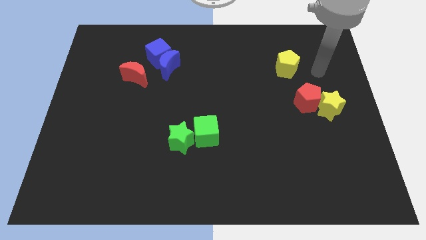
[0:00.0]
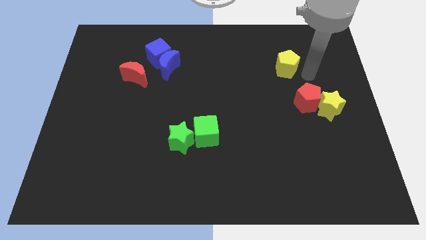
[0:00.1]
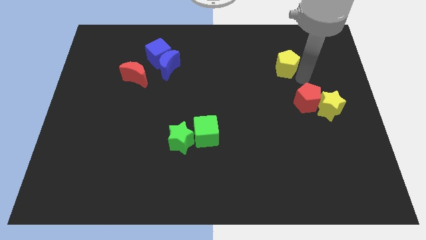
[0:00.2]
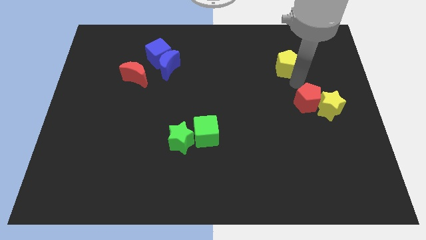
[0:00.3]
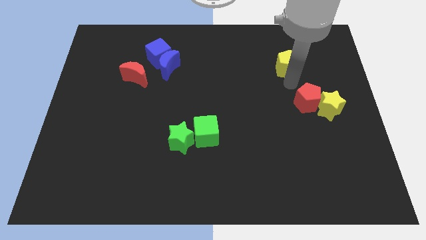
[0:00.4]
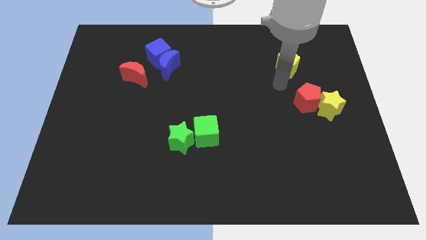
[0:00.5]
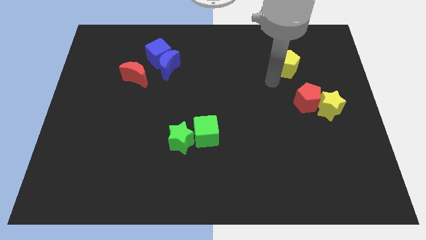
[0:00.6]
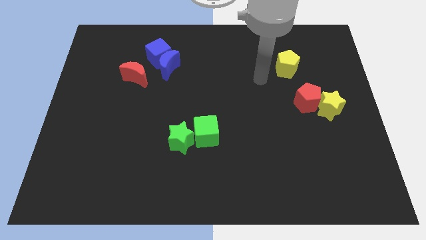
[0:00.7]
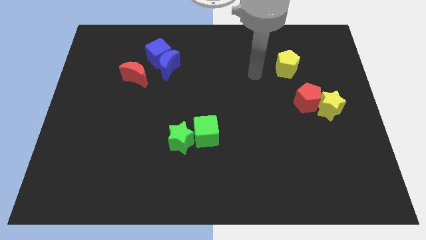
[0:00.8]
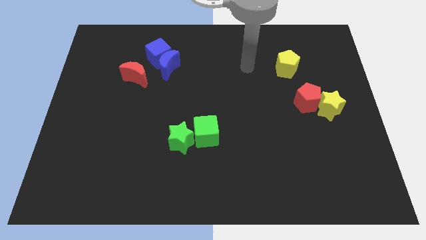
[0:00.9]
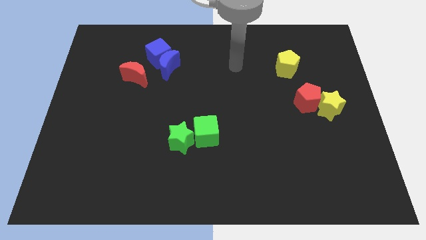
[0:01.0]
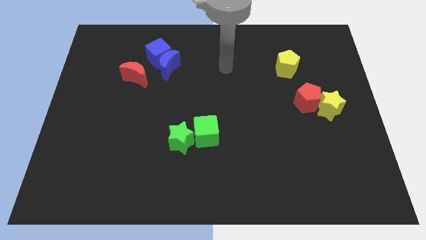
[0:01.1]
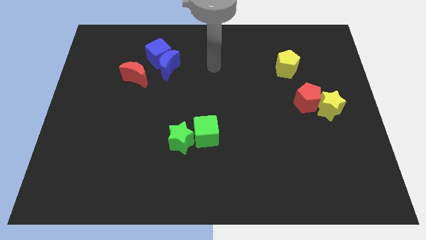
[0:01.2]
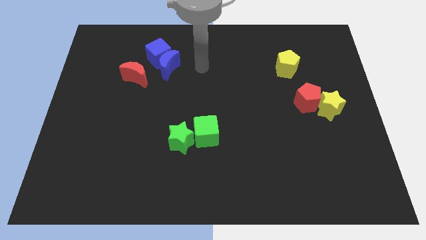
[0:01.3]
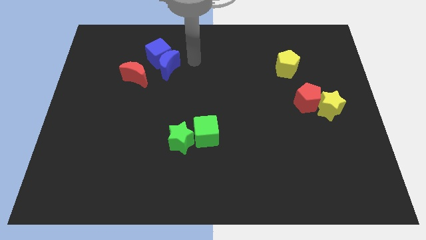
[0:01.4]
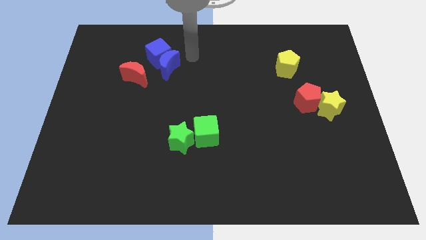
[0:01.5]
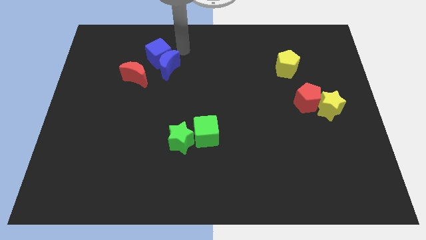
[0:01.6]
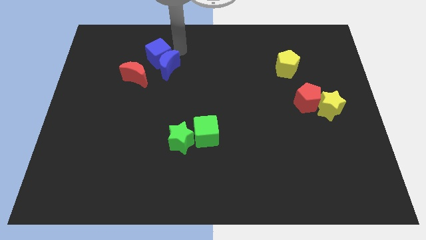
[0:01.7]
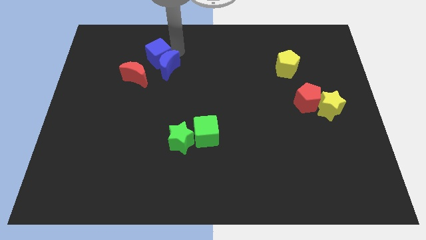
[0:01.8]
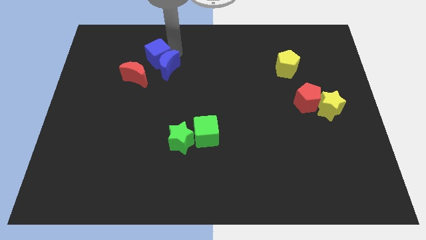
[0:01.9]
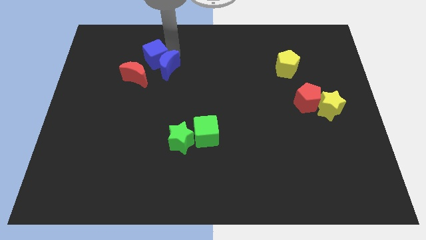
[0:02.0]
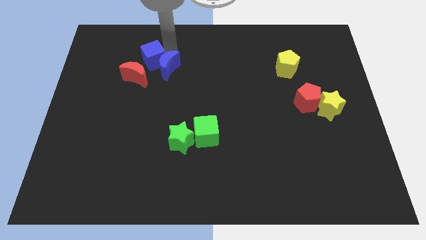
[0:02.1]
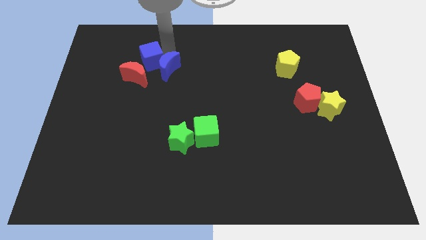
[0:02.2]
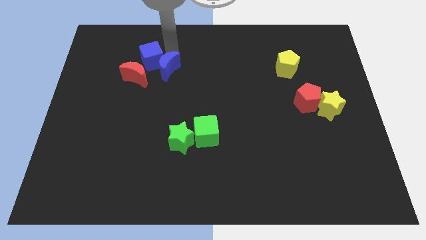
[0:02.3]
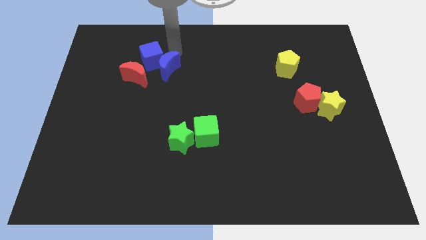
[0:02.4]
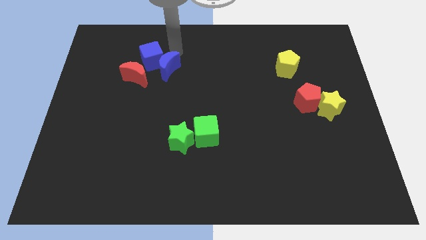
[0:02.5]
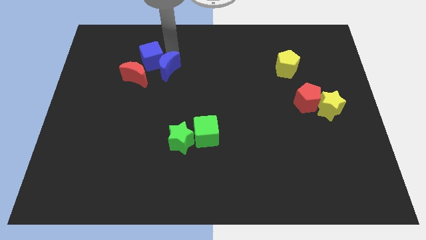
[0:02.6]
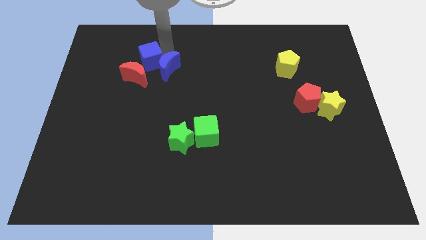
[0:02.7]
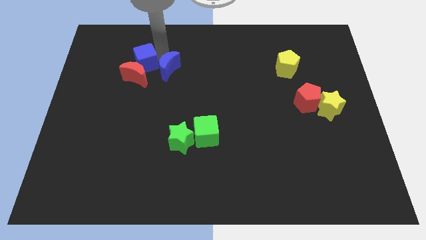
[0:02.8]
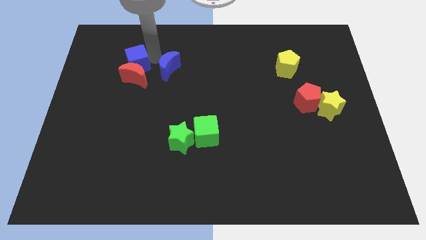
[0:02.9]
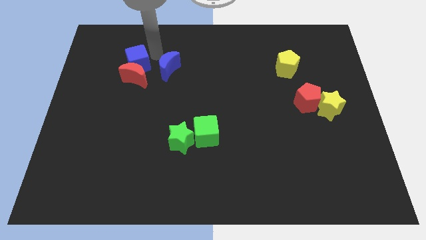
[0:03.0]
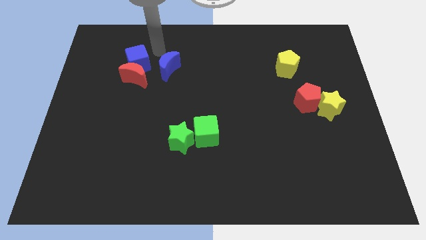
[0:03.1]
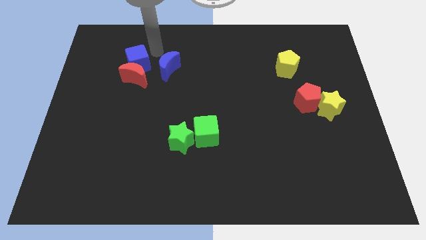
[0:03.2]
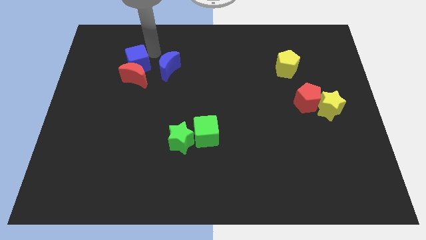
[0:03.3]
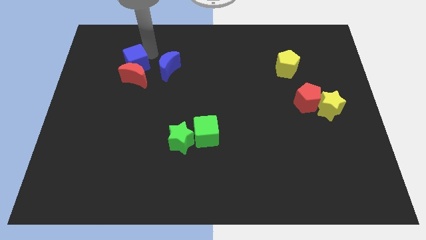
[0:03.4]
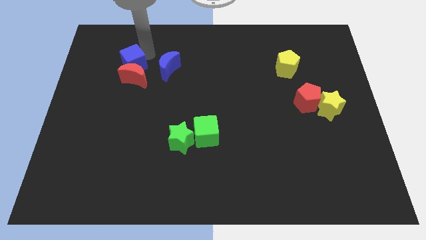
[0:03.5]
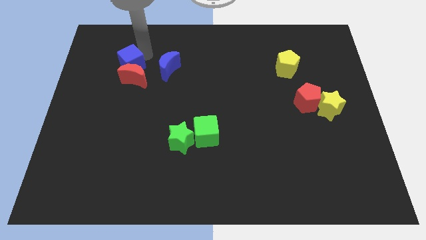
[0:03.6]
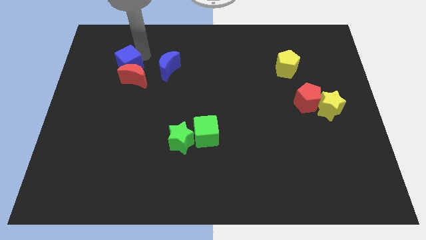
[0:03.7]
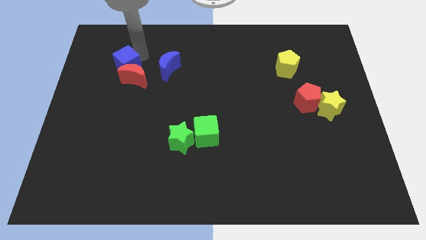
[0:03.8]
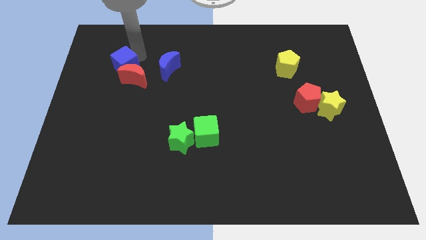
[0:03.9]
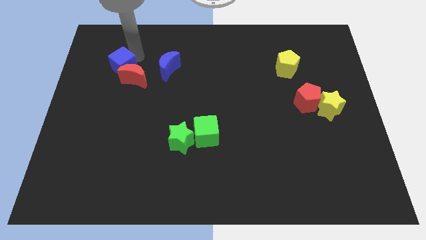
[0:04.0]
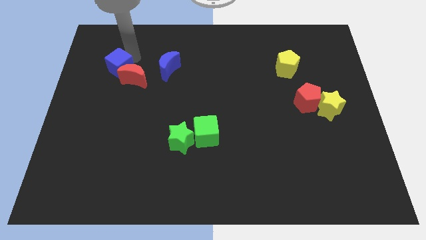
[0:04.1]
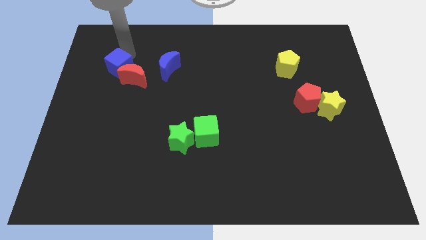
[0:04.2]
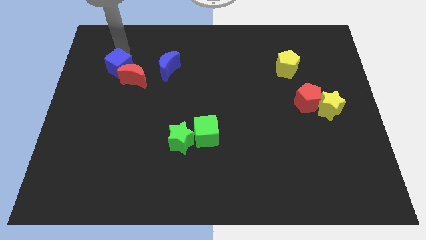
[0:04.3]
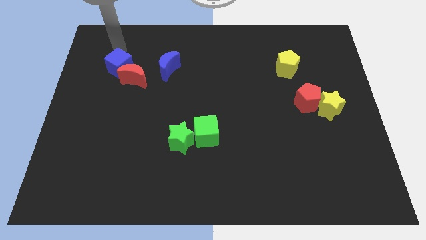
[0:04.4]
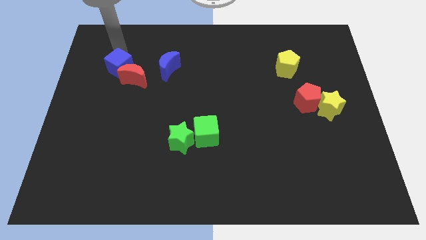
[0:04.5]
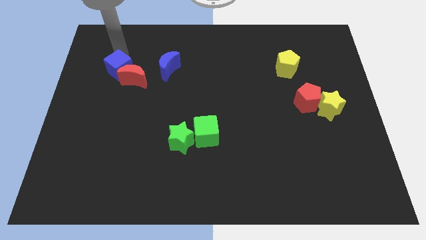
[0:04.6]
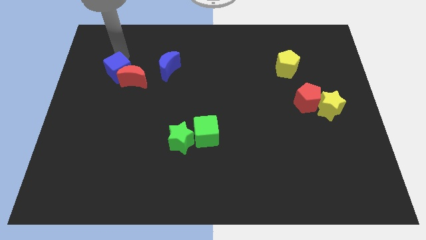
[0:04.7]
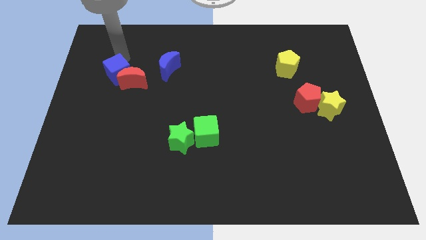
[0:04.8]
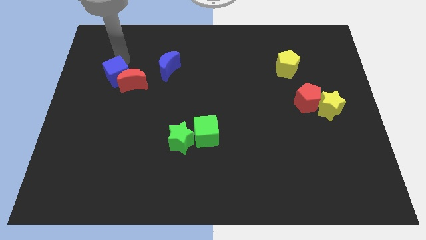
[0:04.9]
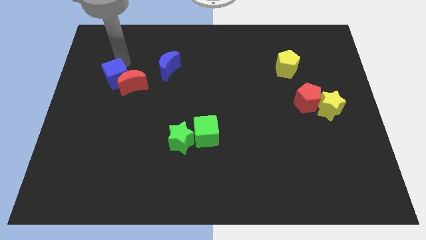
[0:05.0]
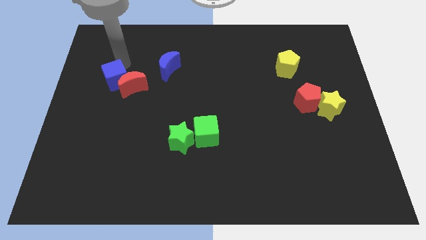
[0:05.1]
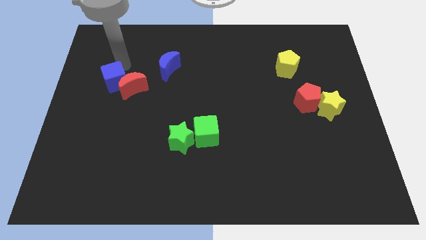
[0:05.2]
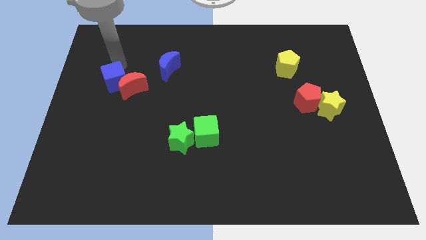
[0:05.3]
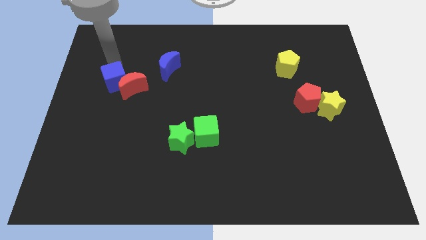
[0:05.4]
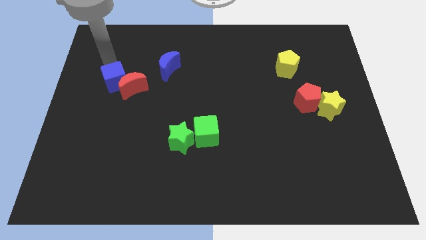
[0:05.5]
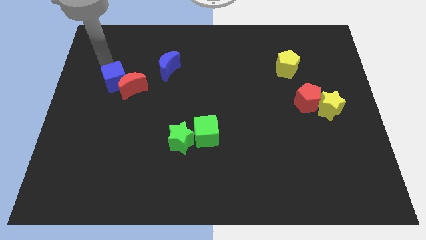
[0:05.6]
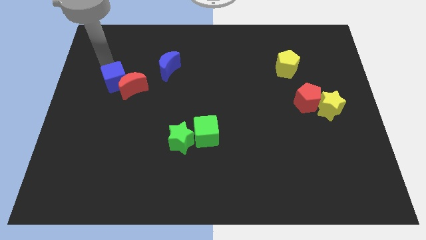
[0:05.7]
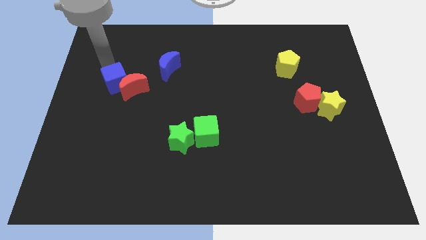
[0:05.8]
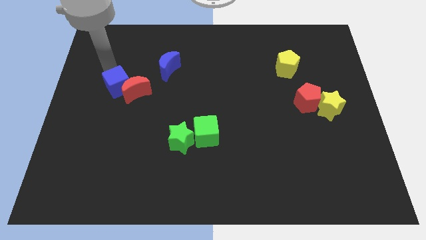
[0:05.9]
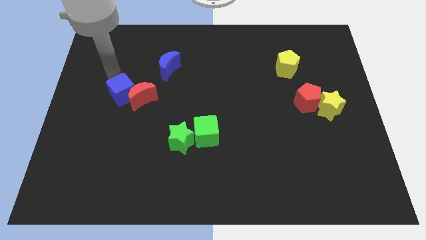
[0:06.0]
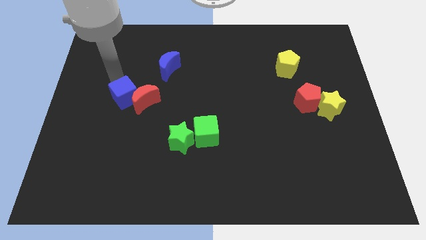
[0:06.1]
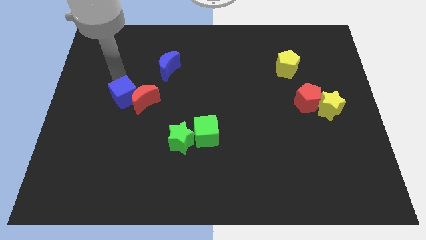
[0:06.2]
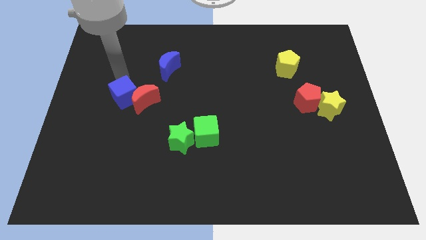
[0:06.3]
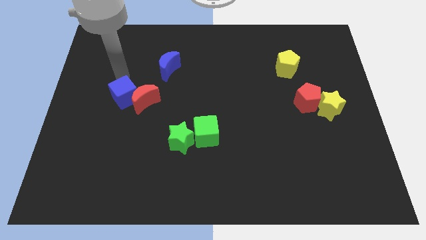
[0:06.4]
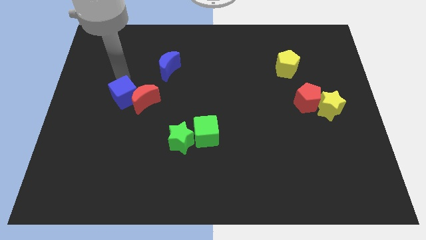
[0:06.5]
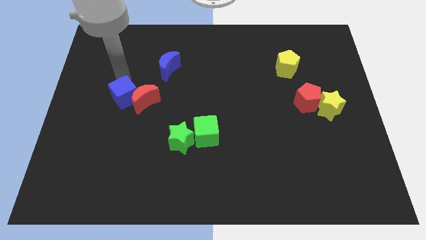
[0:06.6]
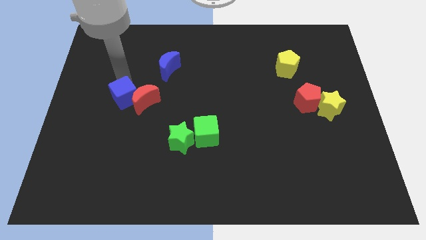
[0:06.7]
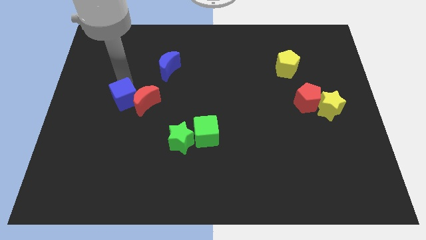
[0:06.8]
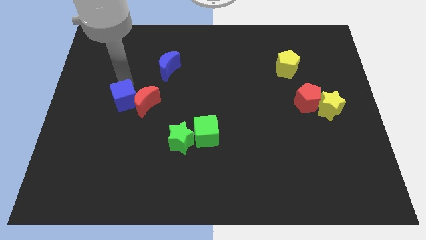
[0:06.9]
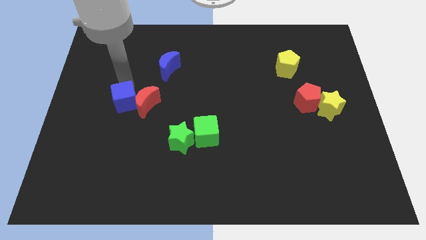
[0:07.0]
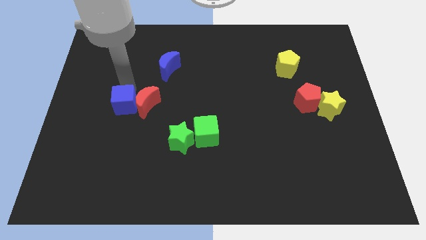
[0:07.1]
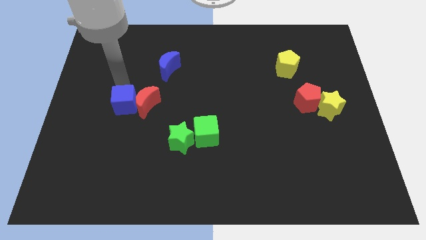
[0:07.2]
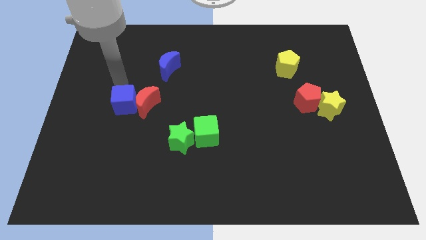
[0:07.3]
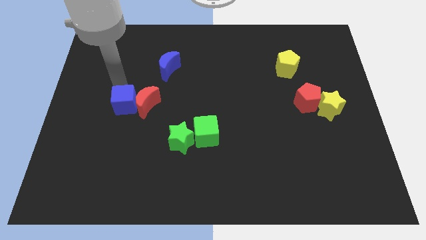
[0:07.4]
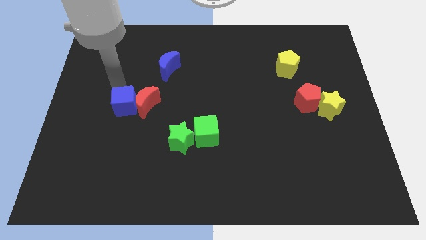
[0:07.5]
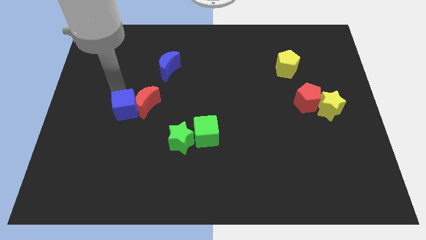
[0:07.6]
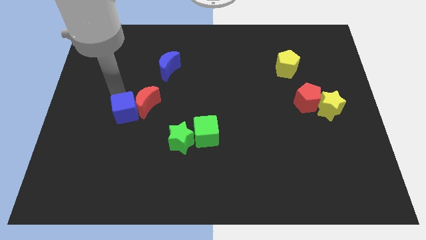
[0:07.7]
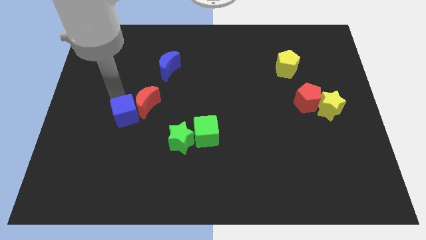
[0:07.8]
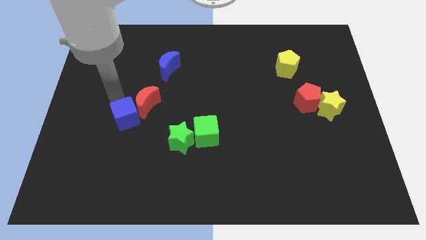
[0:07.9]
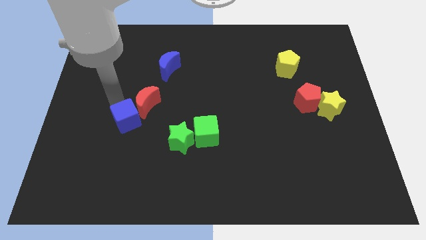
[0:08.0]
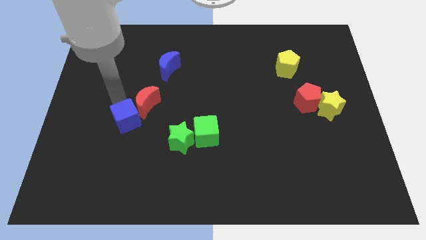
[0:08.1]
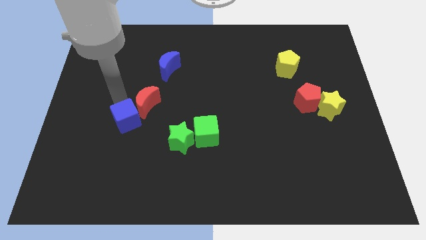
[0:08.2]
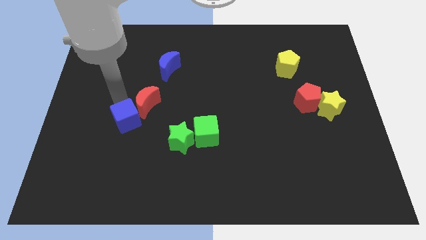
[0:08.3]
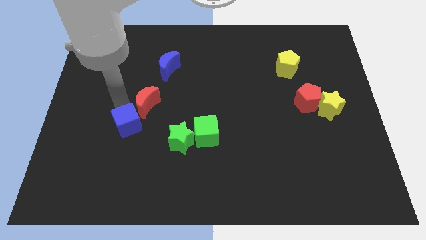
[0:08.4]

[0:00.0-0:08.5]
slide the blue cube to the left side of the green star
